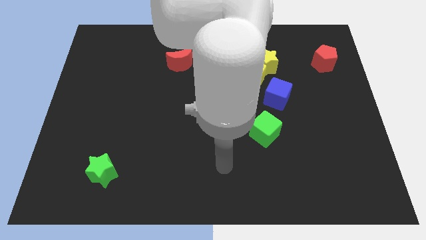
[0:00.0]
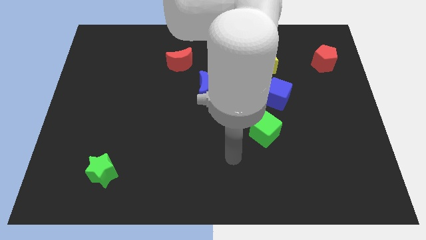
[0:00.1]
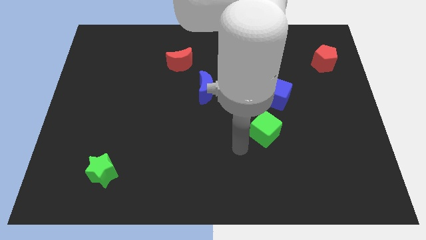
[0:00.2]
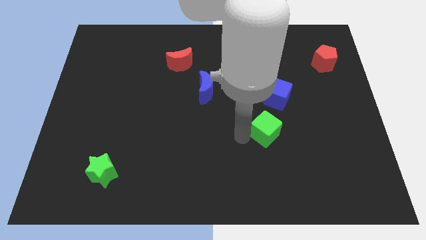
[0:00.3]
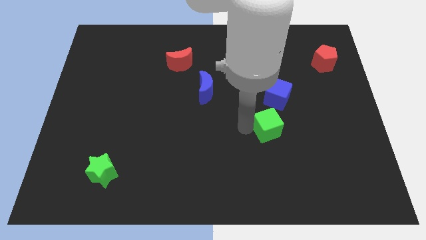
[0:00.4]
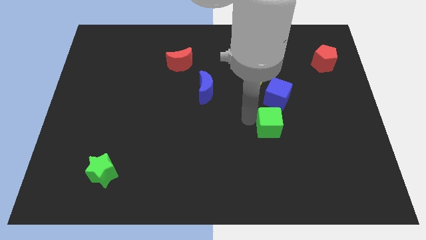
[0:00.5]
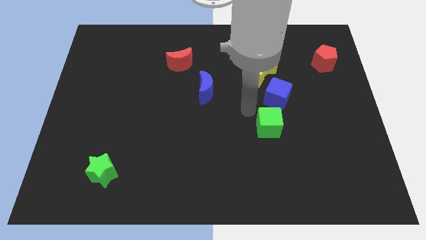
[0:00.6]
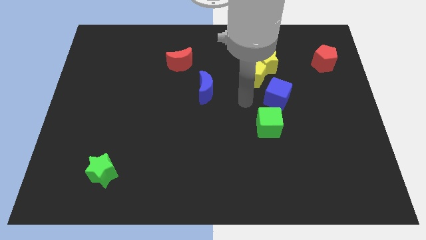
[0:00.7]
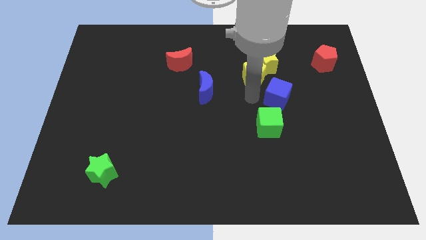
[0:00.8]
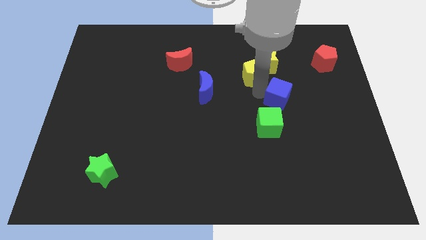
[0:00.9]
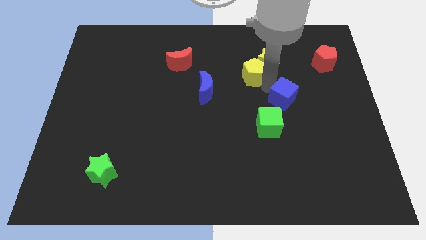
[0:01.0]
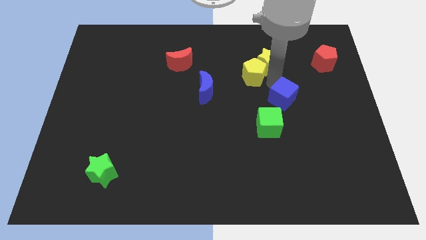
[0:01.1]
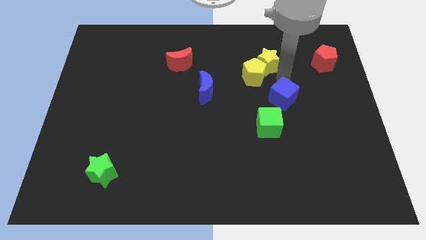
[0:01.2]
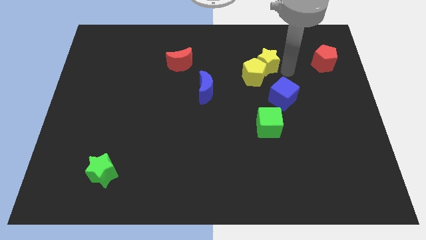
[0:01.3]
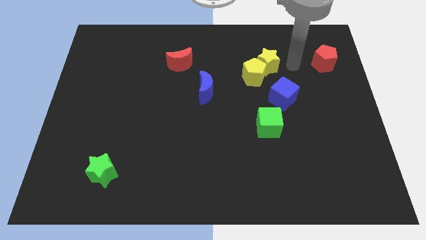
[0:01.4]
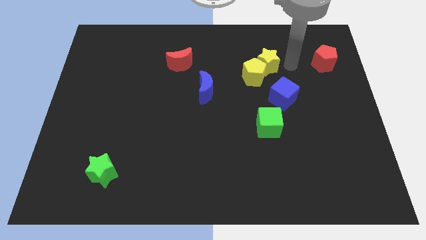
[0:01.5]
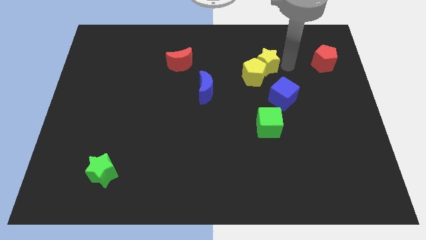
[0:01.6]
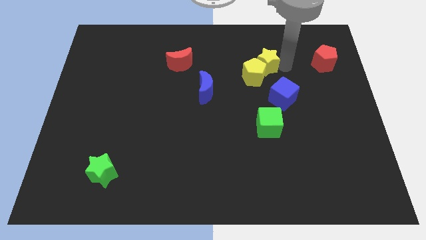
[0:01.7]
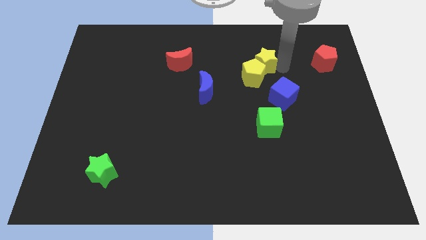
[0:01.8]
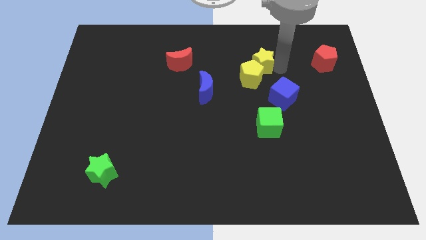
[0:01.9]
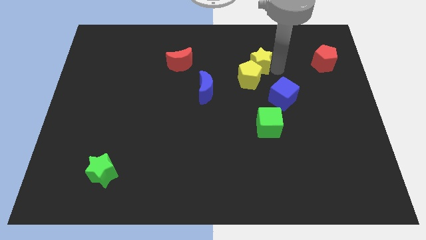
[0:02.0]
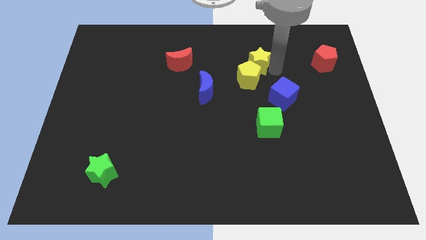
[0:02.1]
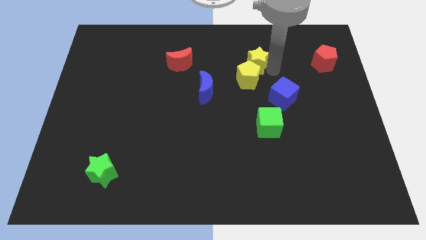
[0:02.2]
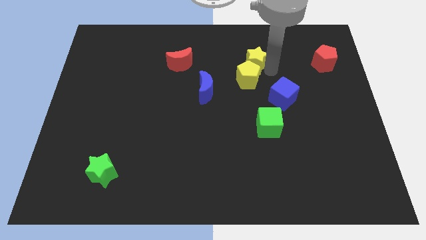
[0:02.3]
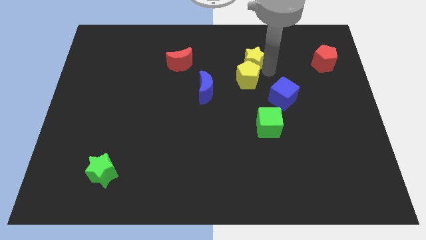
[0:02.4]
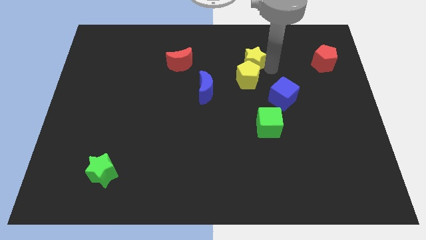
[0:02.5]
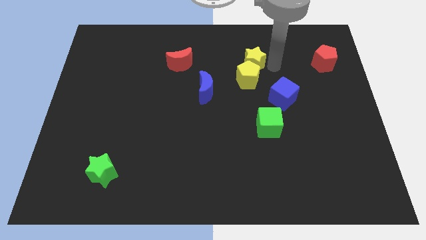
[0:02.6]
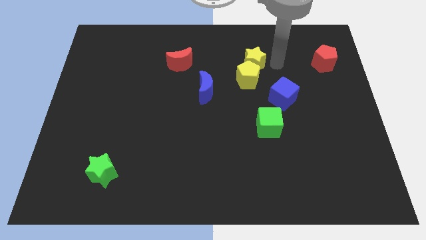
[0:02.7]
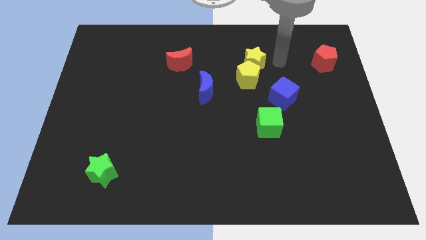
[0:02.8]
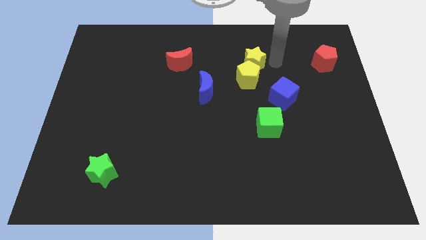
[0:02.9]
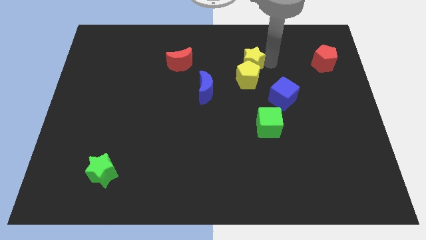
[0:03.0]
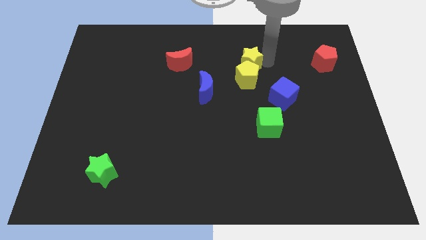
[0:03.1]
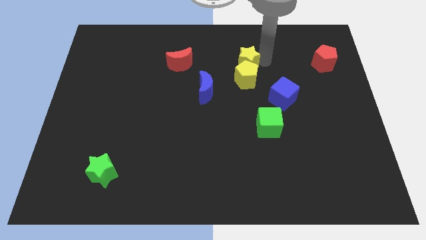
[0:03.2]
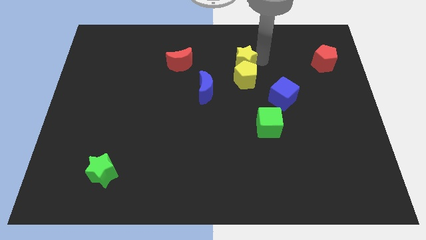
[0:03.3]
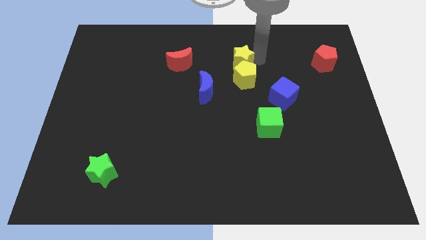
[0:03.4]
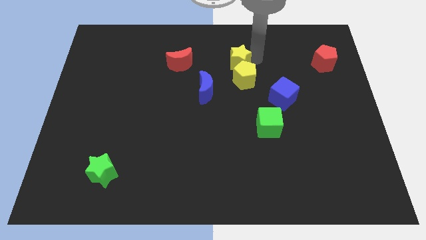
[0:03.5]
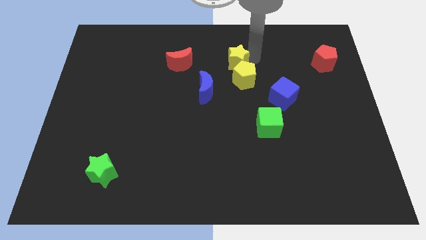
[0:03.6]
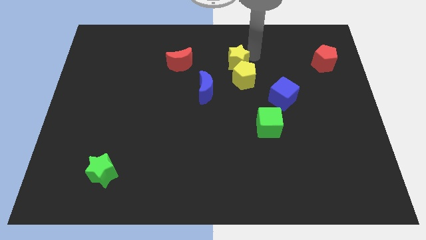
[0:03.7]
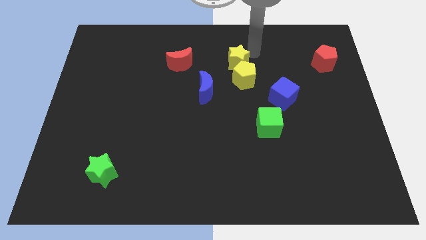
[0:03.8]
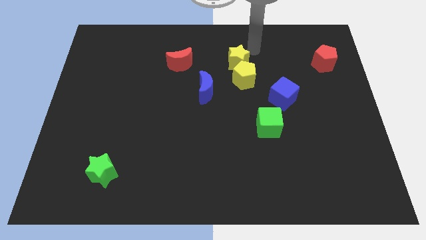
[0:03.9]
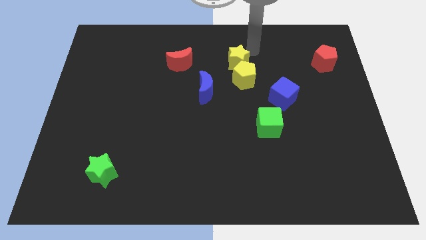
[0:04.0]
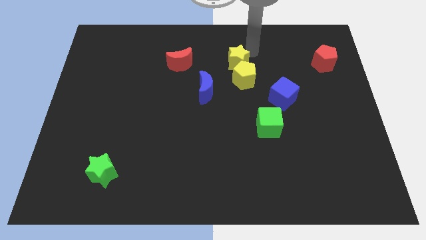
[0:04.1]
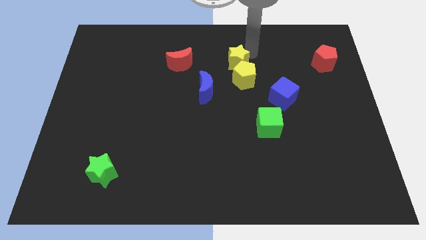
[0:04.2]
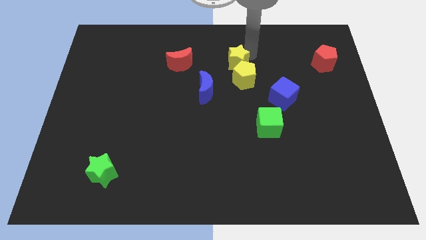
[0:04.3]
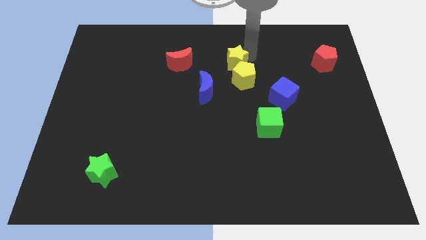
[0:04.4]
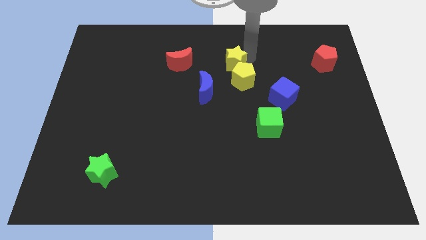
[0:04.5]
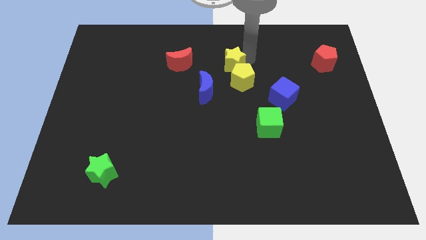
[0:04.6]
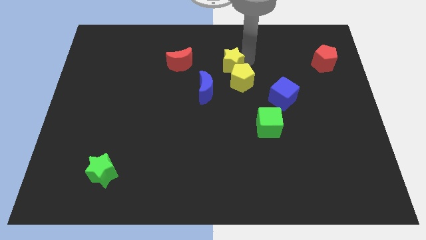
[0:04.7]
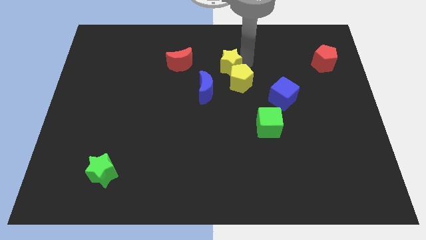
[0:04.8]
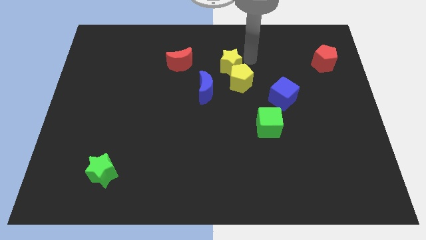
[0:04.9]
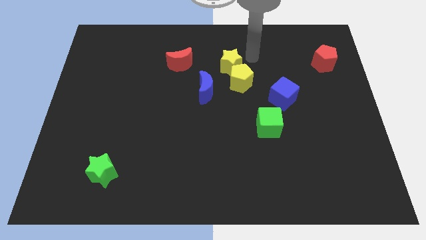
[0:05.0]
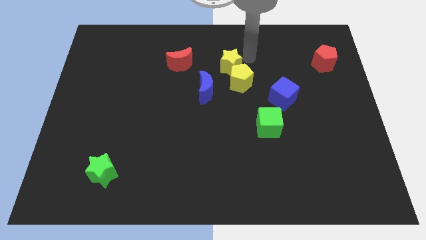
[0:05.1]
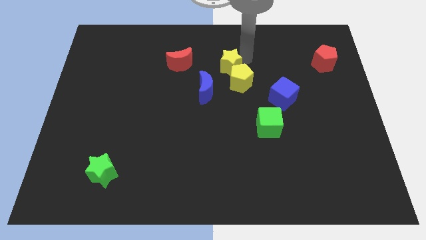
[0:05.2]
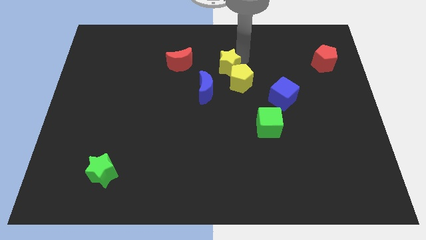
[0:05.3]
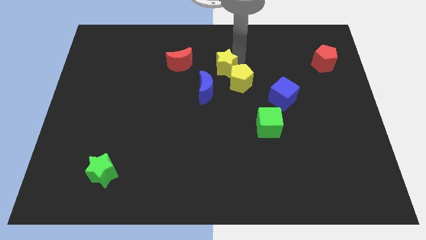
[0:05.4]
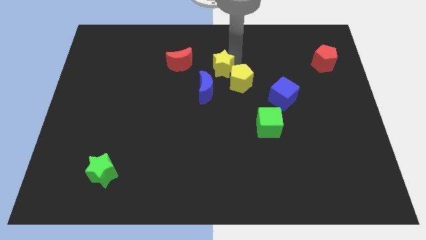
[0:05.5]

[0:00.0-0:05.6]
slide the yellow star to the left of the yellow pentagon

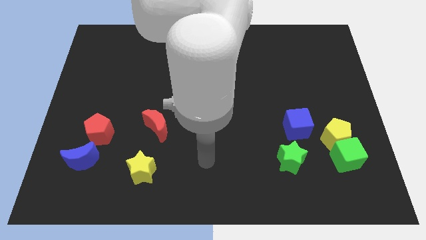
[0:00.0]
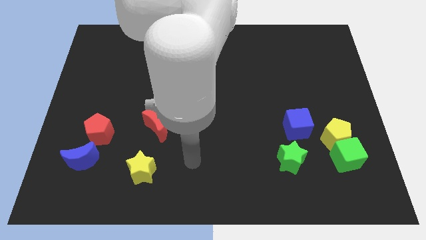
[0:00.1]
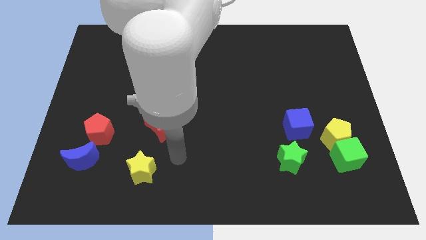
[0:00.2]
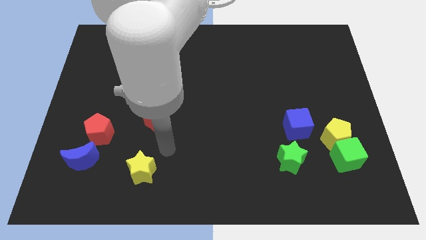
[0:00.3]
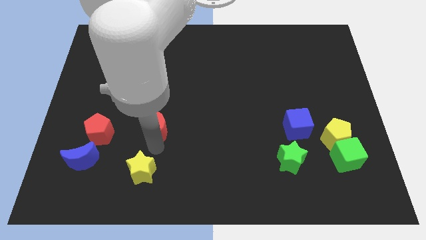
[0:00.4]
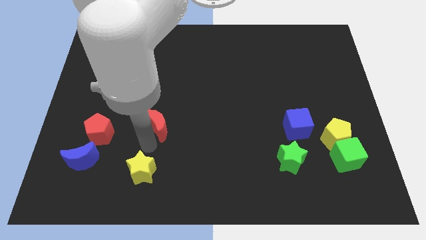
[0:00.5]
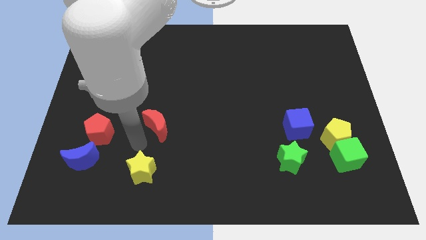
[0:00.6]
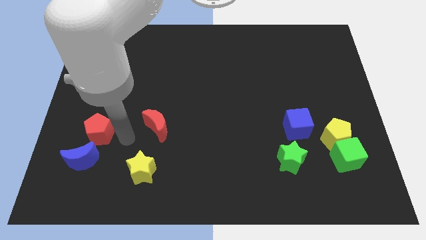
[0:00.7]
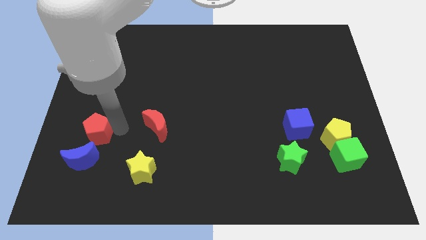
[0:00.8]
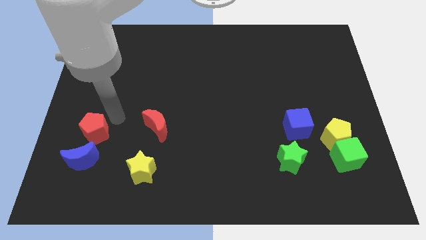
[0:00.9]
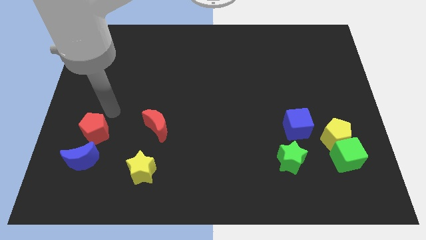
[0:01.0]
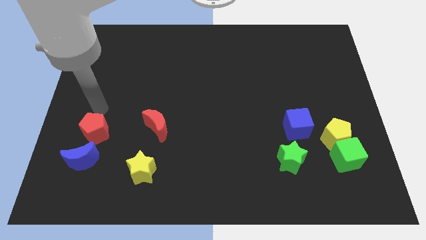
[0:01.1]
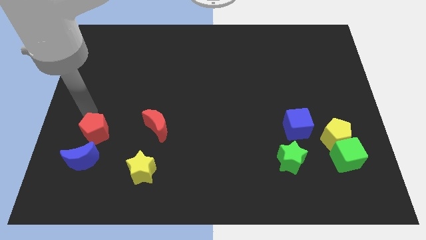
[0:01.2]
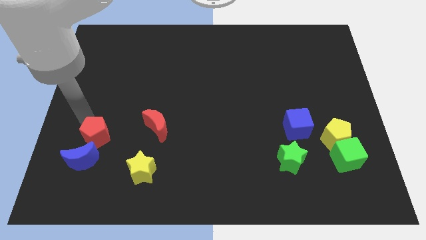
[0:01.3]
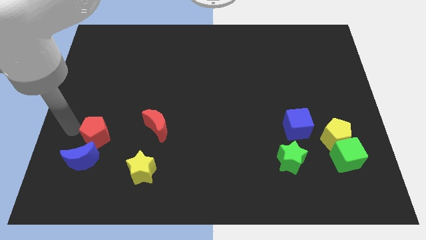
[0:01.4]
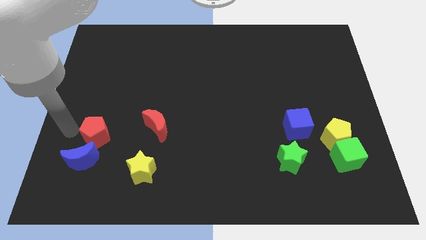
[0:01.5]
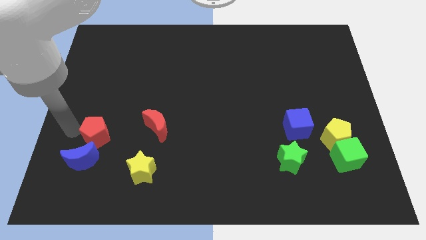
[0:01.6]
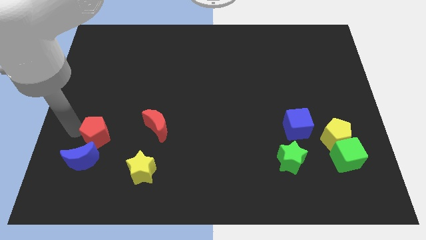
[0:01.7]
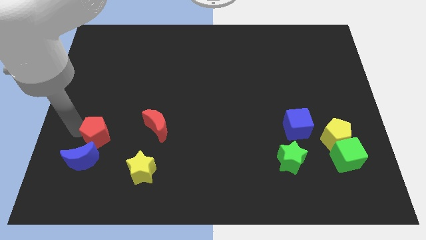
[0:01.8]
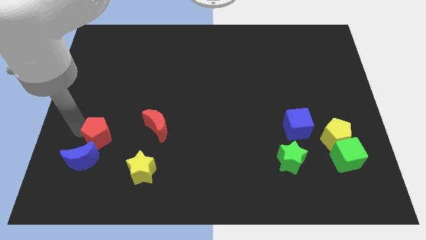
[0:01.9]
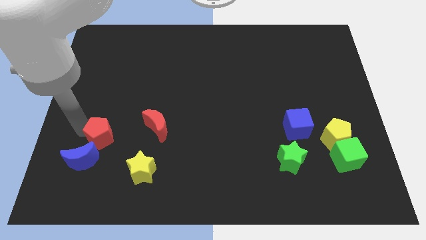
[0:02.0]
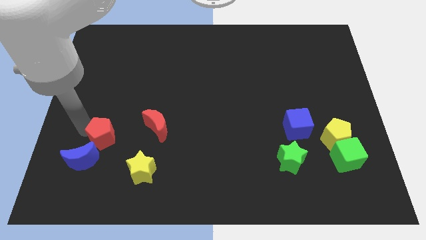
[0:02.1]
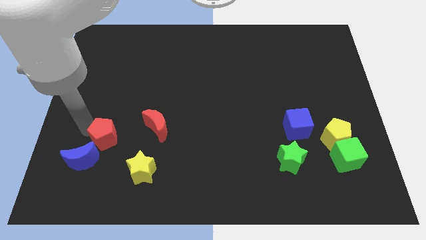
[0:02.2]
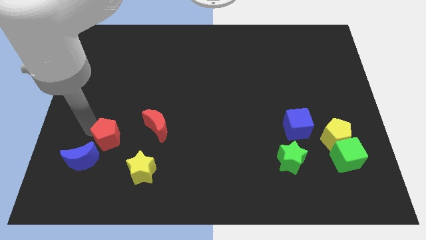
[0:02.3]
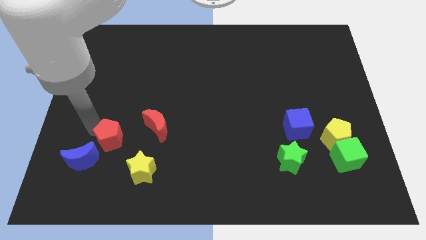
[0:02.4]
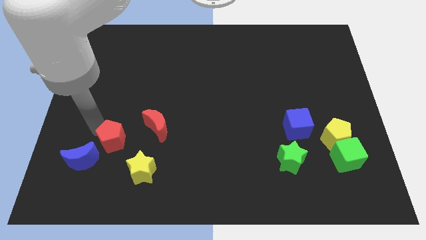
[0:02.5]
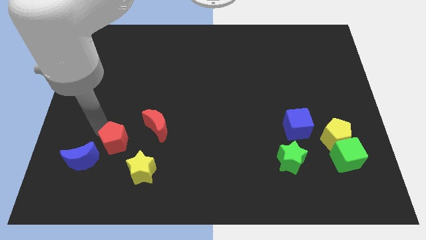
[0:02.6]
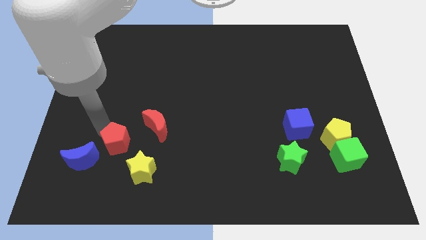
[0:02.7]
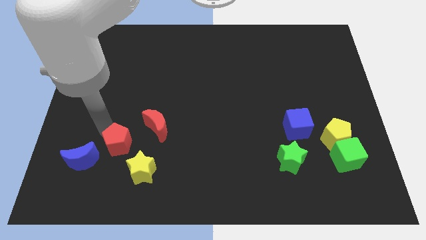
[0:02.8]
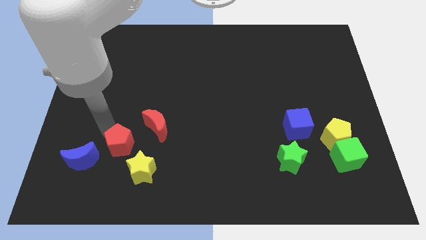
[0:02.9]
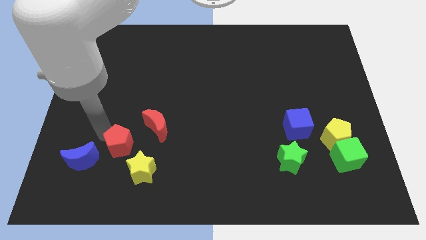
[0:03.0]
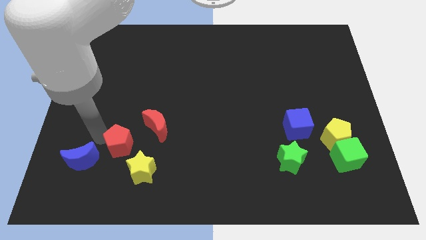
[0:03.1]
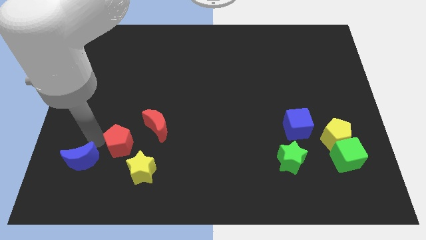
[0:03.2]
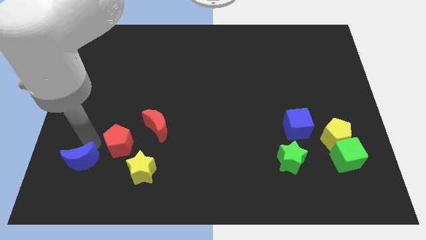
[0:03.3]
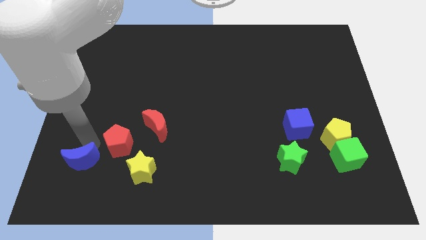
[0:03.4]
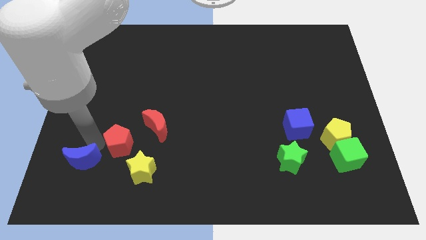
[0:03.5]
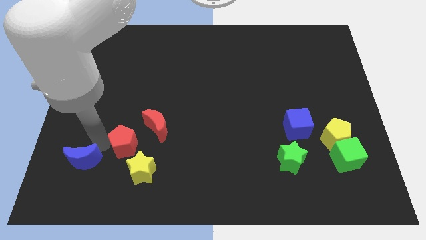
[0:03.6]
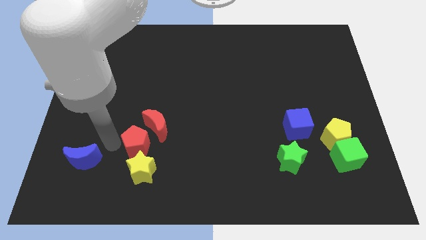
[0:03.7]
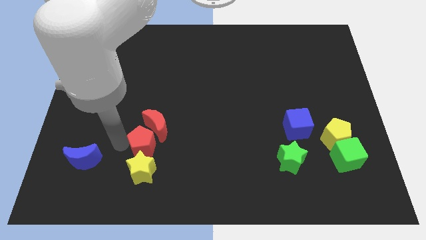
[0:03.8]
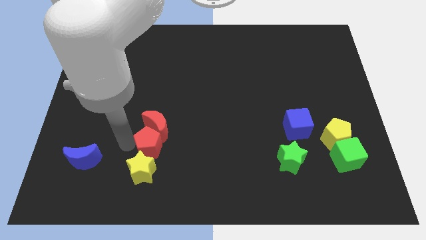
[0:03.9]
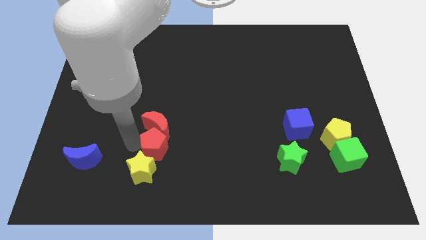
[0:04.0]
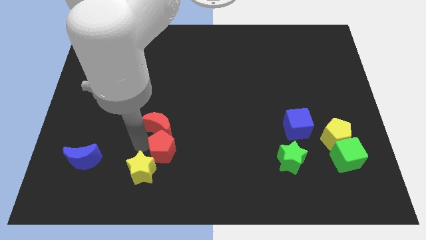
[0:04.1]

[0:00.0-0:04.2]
put the red pentagon just right of the yellow star
